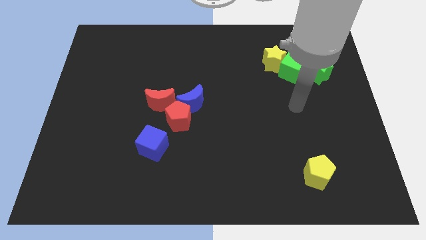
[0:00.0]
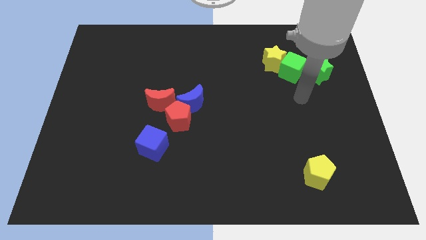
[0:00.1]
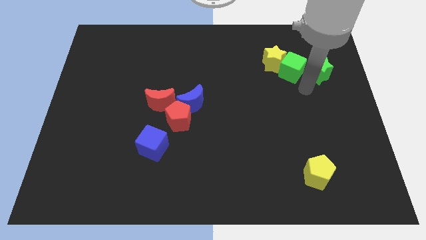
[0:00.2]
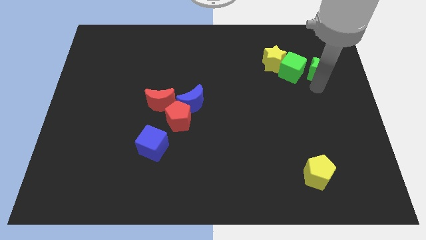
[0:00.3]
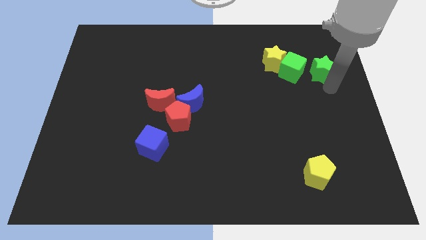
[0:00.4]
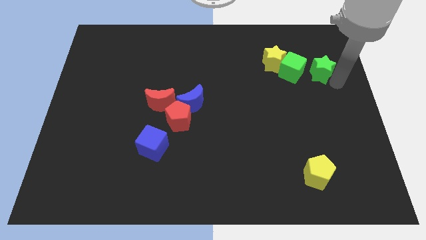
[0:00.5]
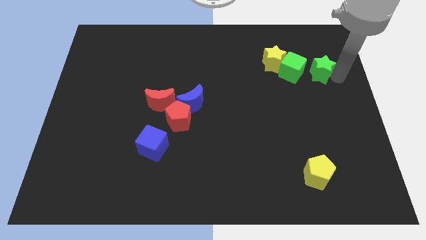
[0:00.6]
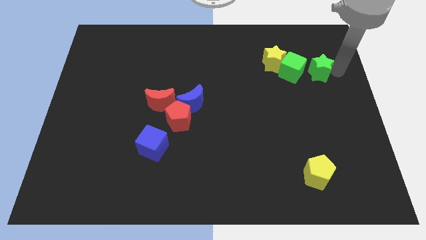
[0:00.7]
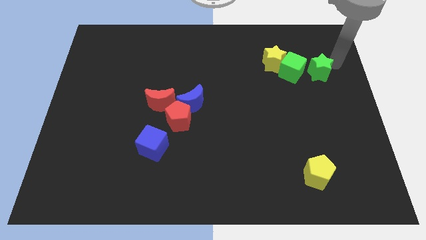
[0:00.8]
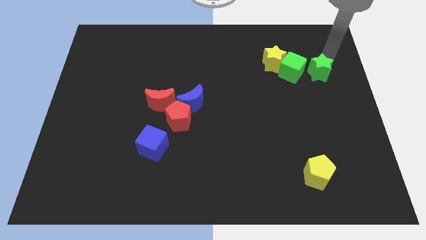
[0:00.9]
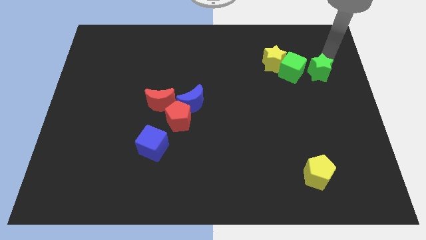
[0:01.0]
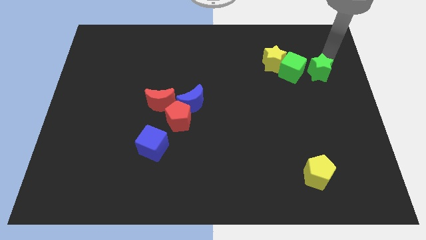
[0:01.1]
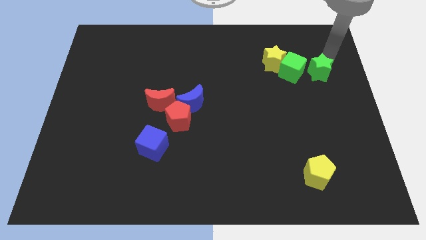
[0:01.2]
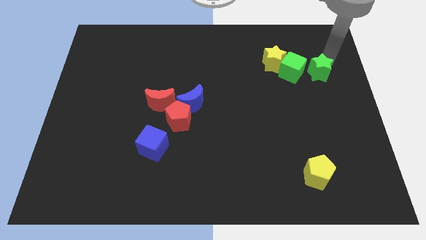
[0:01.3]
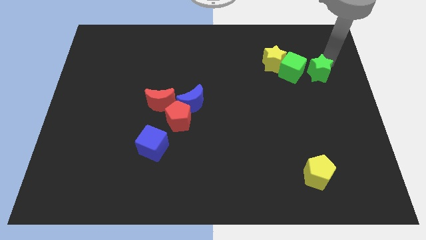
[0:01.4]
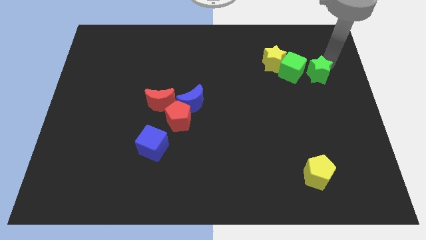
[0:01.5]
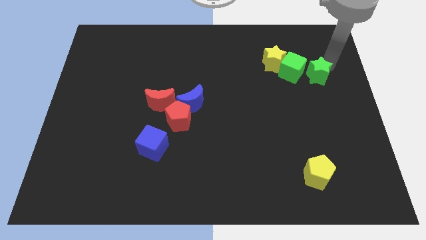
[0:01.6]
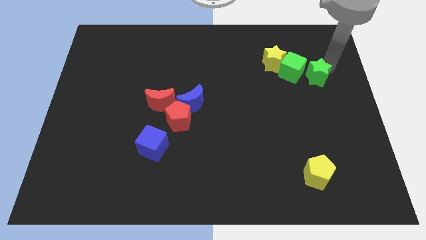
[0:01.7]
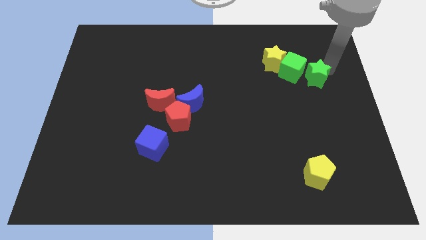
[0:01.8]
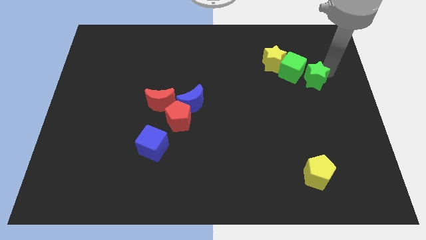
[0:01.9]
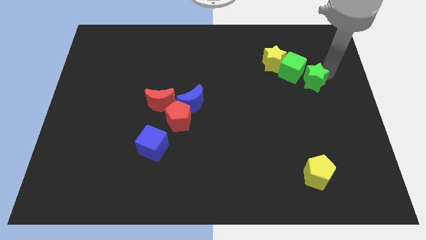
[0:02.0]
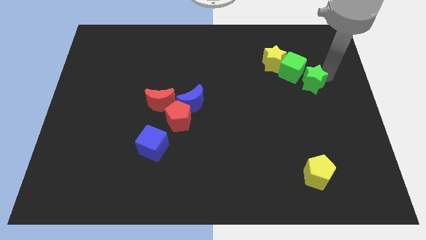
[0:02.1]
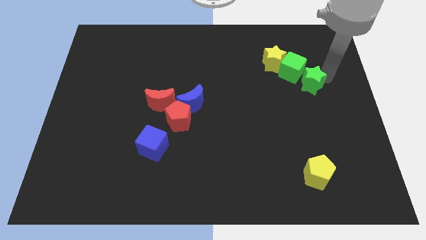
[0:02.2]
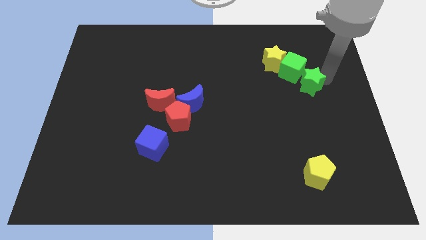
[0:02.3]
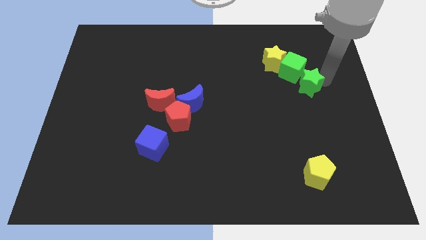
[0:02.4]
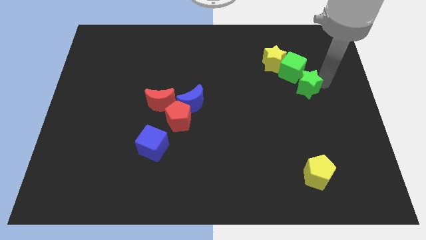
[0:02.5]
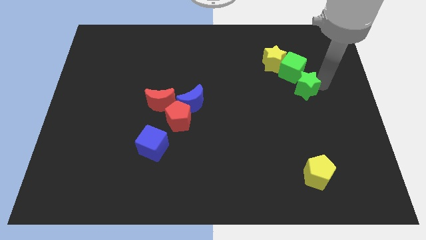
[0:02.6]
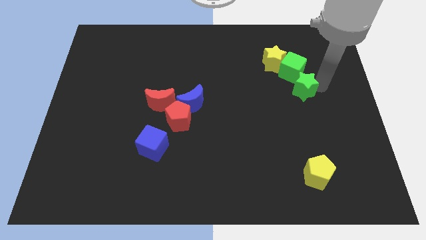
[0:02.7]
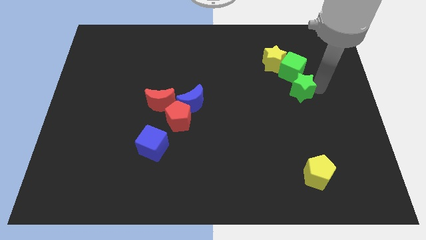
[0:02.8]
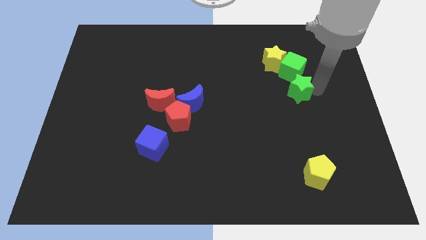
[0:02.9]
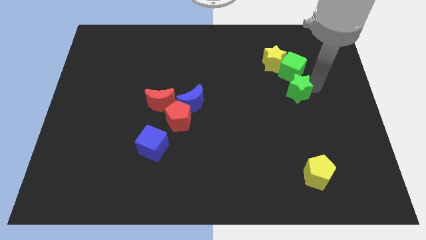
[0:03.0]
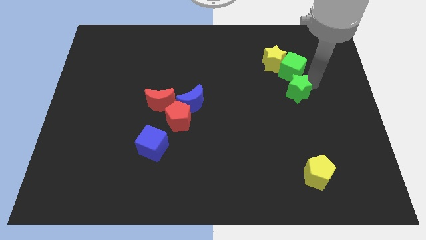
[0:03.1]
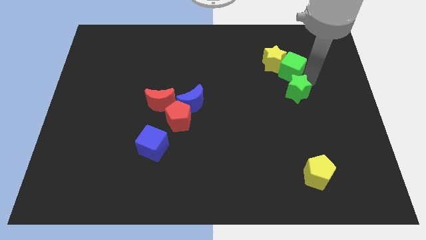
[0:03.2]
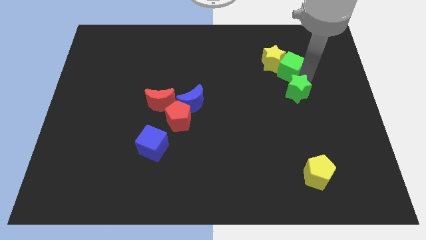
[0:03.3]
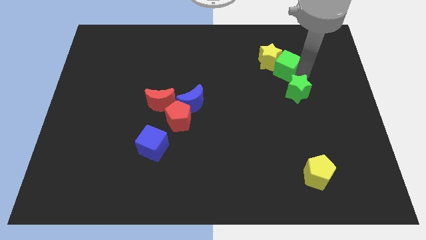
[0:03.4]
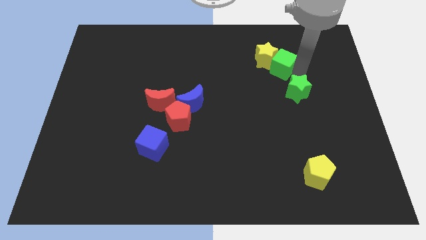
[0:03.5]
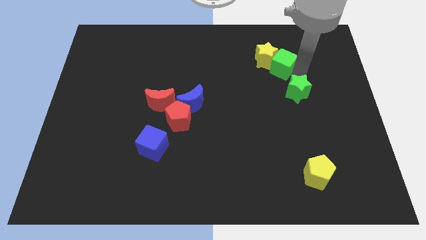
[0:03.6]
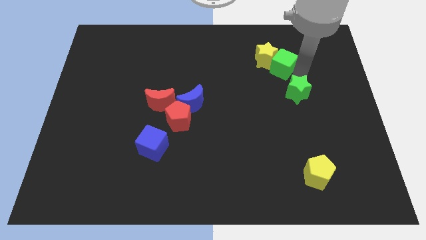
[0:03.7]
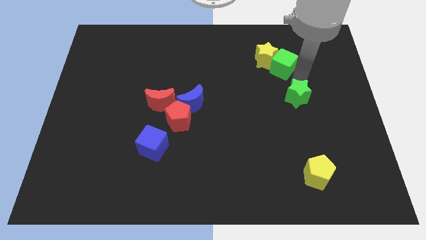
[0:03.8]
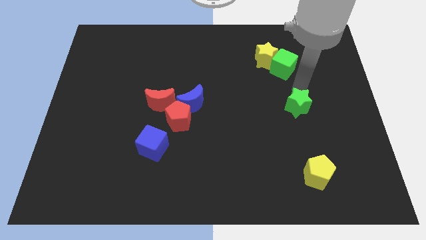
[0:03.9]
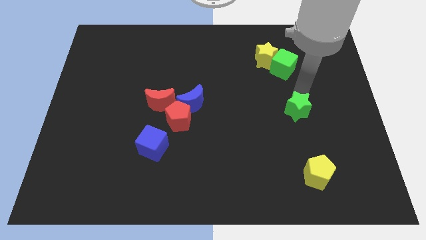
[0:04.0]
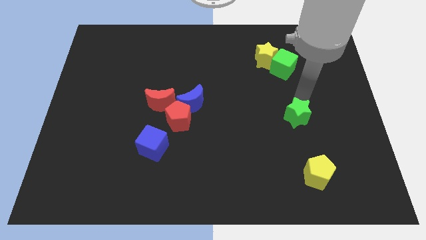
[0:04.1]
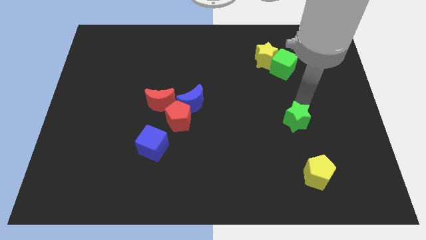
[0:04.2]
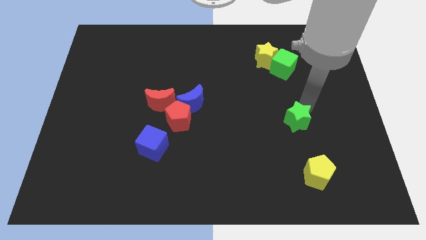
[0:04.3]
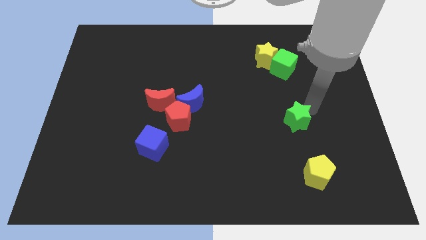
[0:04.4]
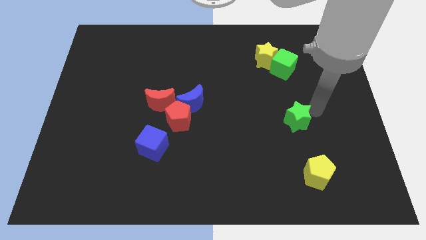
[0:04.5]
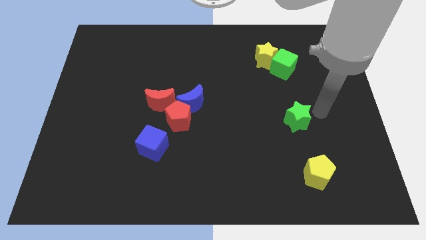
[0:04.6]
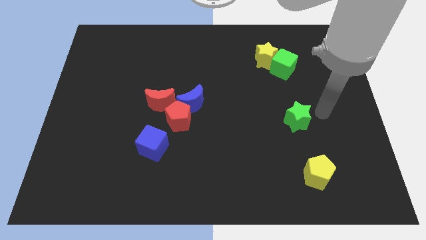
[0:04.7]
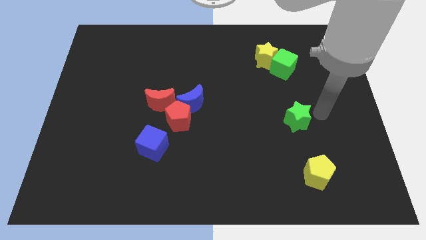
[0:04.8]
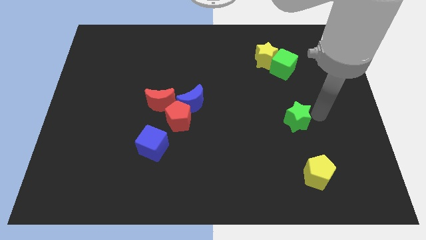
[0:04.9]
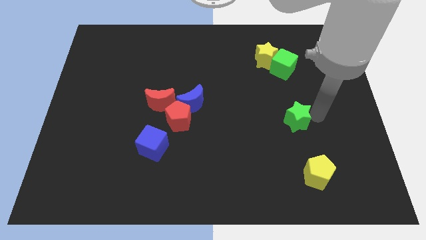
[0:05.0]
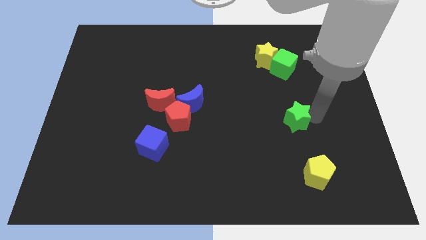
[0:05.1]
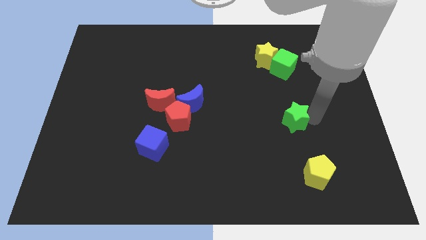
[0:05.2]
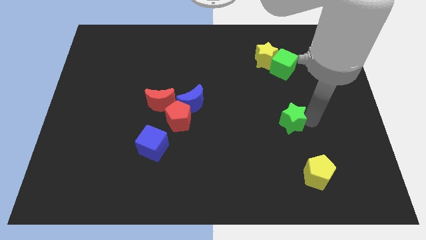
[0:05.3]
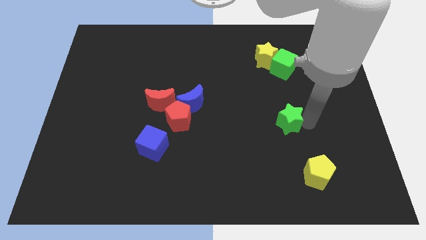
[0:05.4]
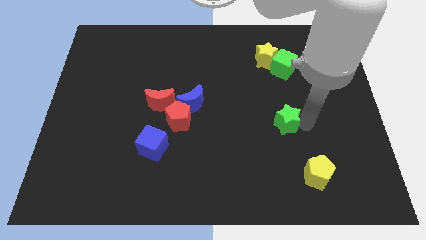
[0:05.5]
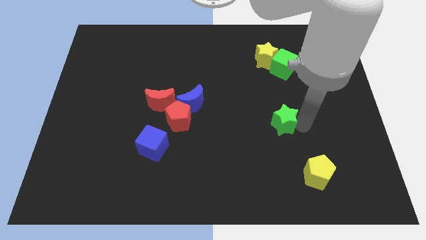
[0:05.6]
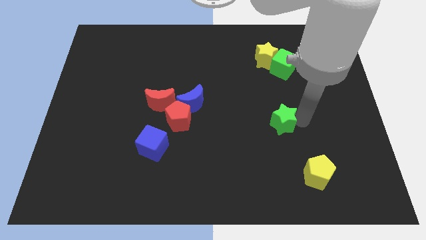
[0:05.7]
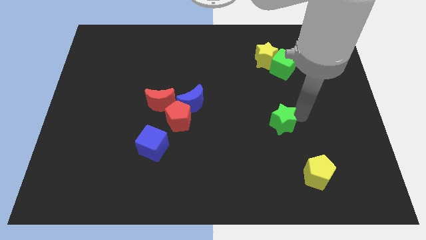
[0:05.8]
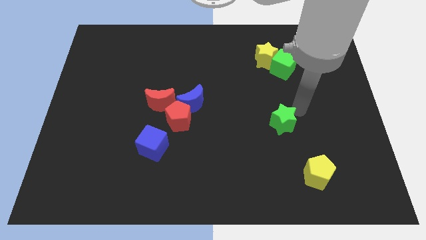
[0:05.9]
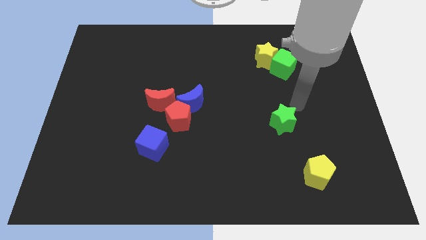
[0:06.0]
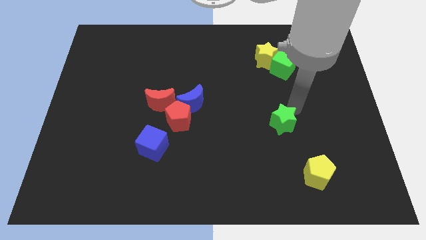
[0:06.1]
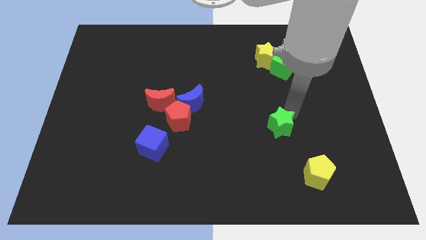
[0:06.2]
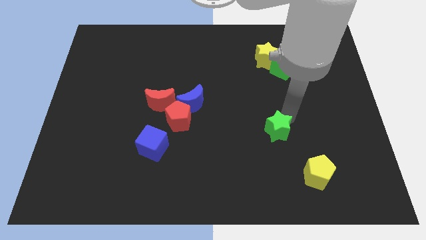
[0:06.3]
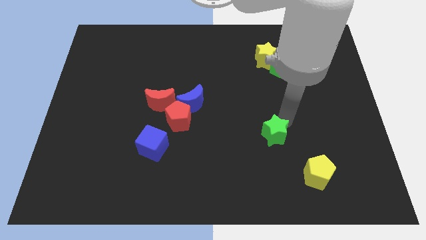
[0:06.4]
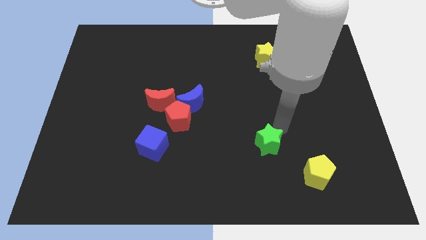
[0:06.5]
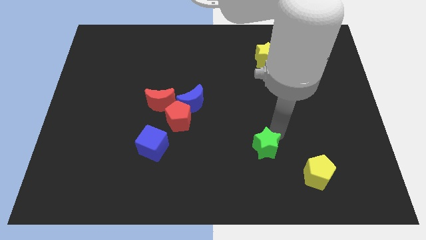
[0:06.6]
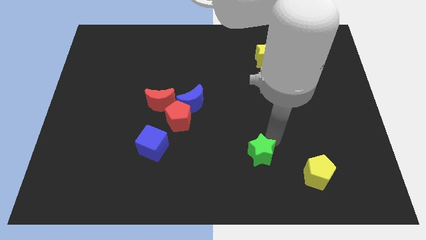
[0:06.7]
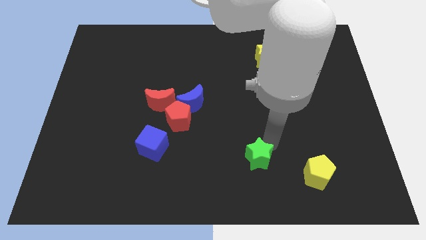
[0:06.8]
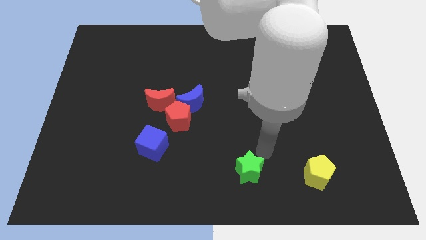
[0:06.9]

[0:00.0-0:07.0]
put the green star to the bottom
